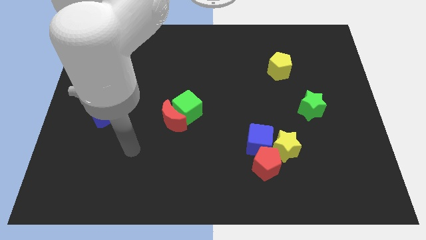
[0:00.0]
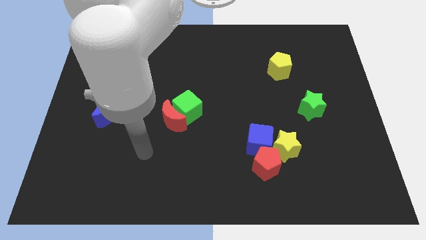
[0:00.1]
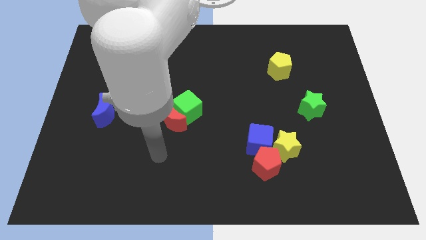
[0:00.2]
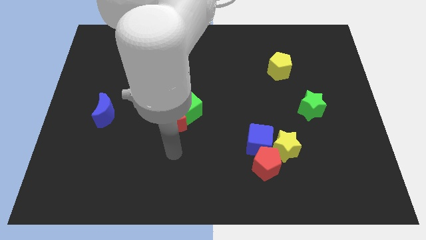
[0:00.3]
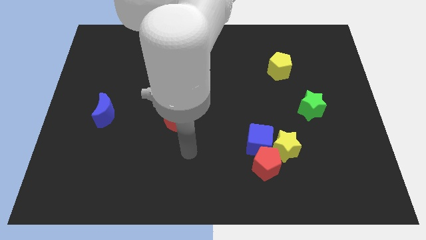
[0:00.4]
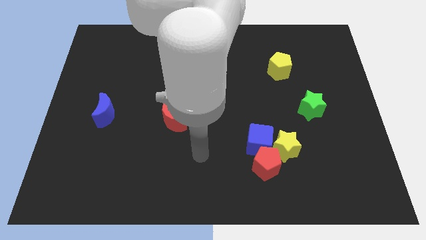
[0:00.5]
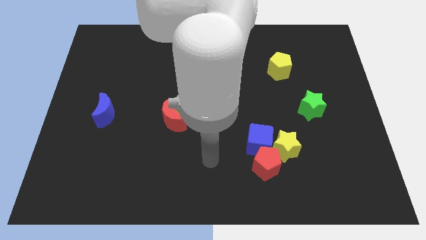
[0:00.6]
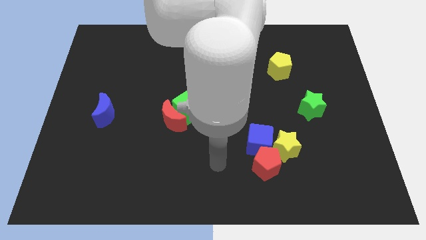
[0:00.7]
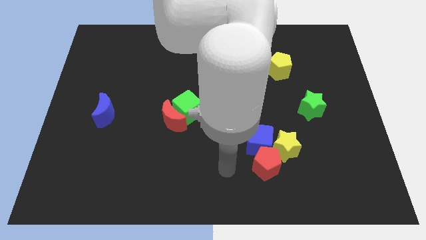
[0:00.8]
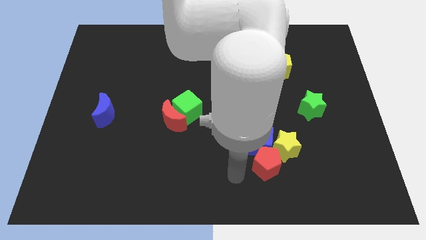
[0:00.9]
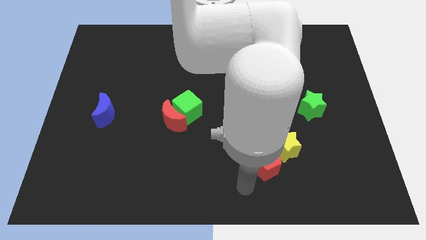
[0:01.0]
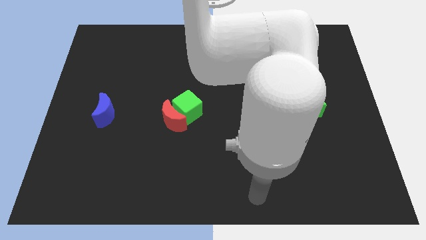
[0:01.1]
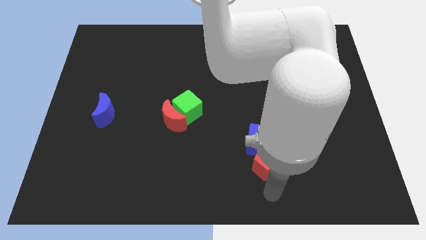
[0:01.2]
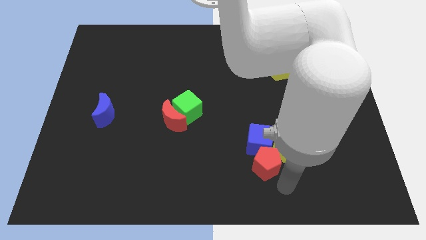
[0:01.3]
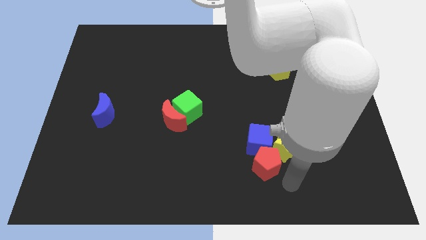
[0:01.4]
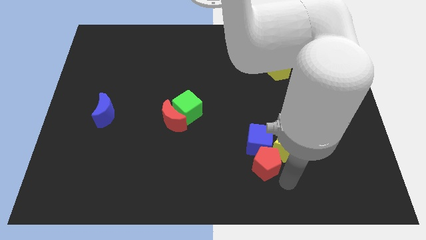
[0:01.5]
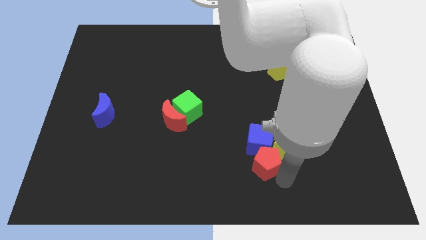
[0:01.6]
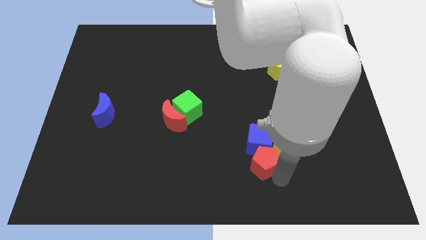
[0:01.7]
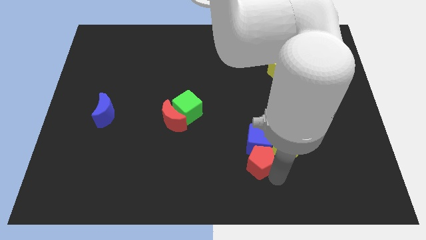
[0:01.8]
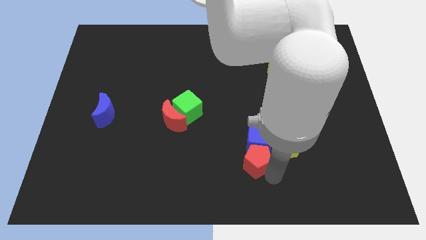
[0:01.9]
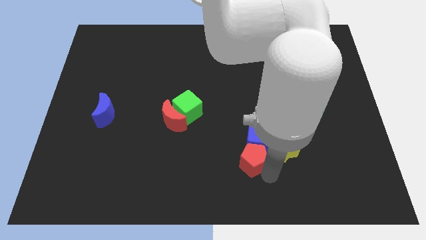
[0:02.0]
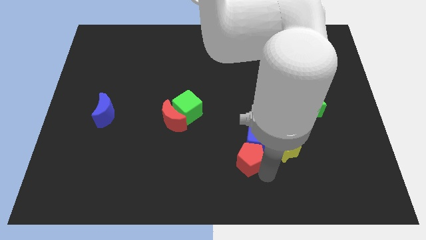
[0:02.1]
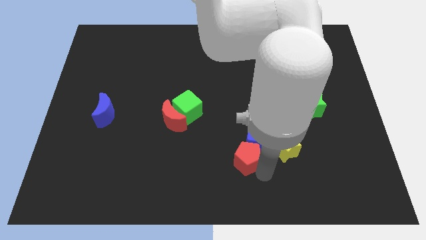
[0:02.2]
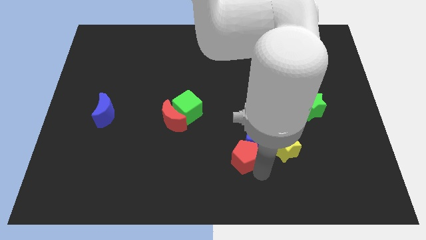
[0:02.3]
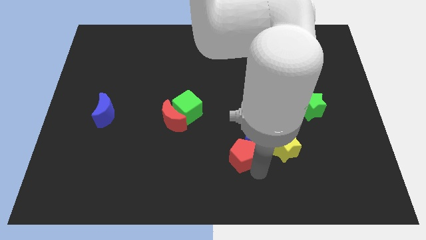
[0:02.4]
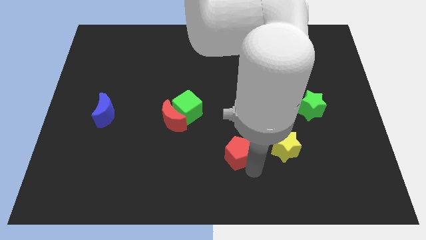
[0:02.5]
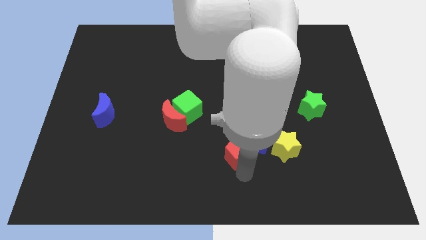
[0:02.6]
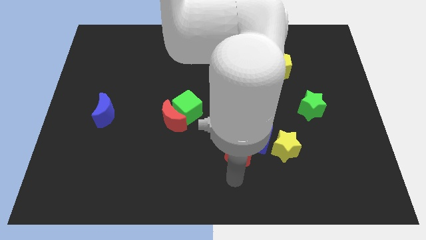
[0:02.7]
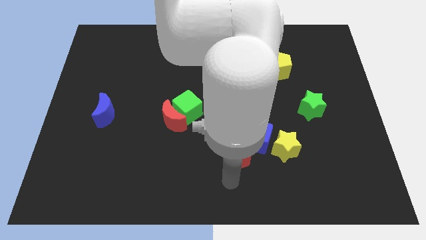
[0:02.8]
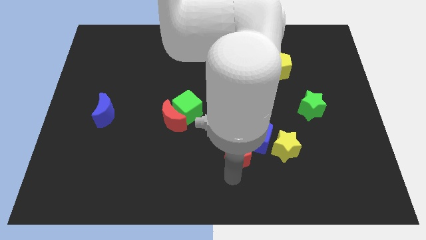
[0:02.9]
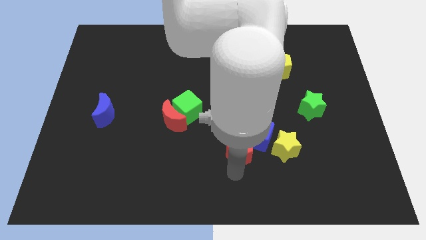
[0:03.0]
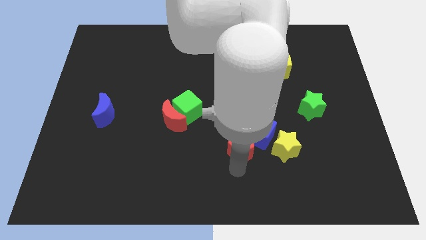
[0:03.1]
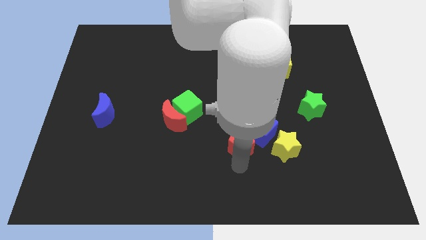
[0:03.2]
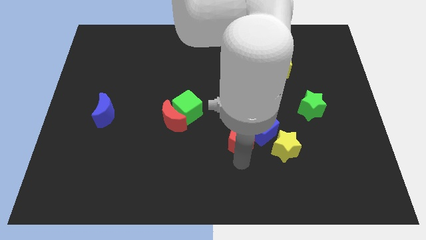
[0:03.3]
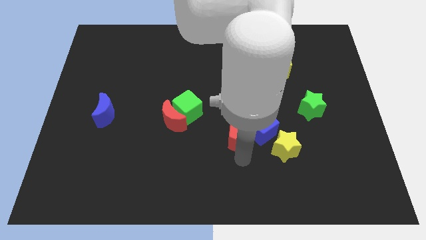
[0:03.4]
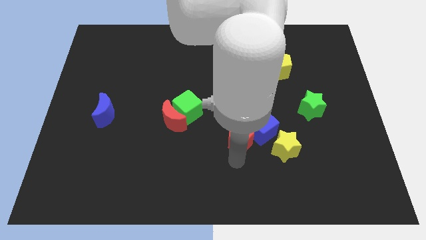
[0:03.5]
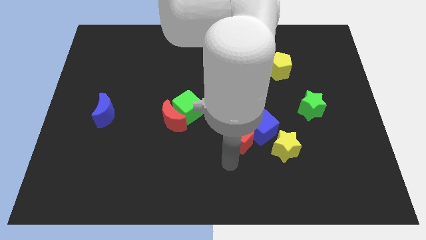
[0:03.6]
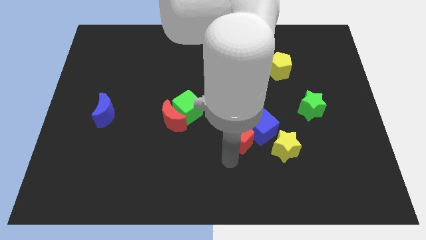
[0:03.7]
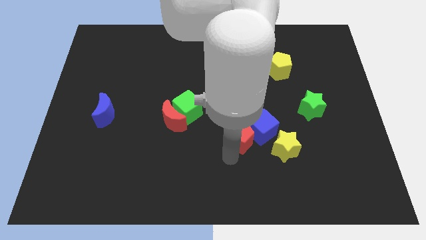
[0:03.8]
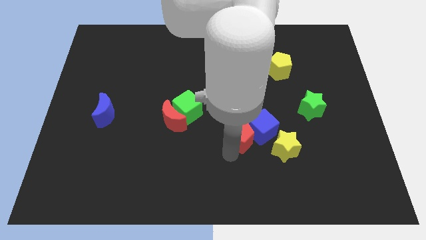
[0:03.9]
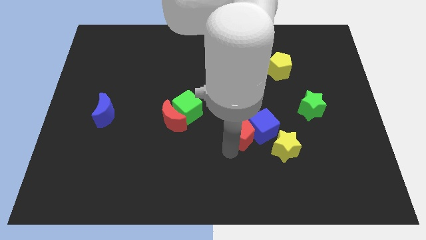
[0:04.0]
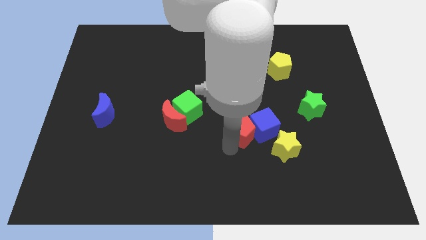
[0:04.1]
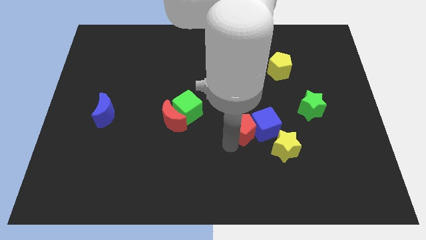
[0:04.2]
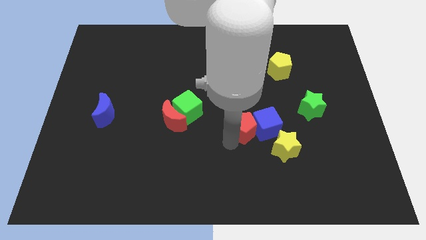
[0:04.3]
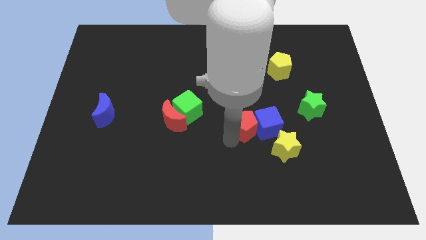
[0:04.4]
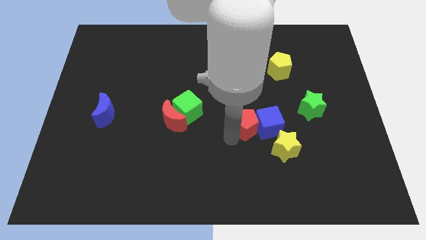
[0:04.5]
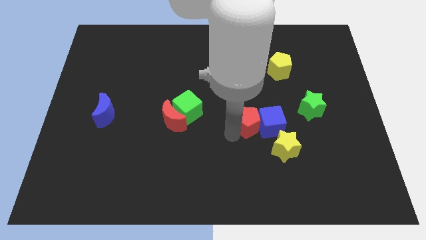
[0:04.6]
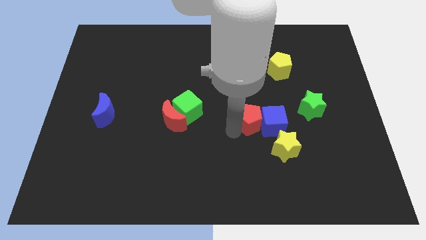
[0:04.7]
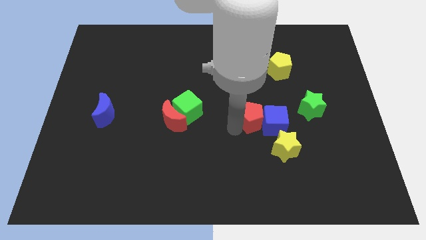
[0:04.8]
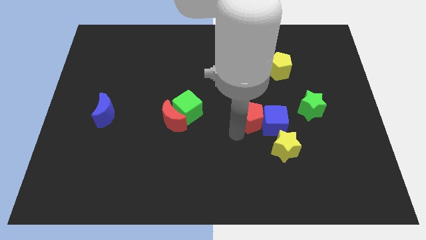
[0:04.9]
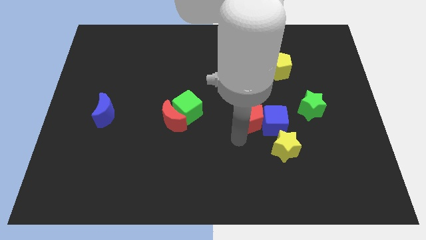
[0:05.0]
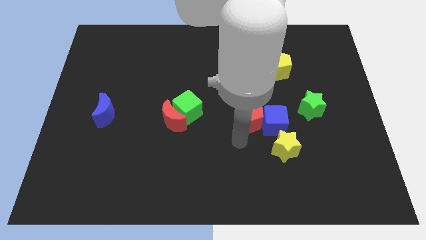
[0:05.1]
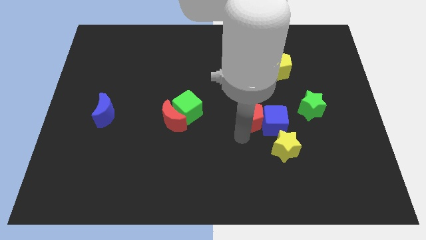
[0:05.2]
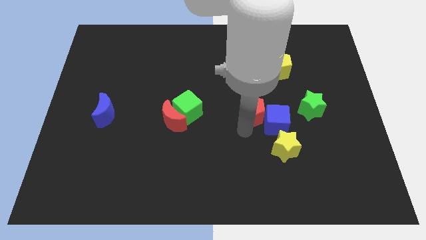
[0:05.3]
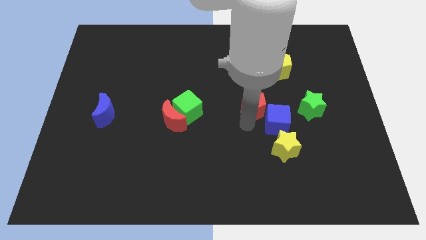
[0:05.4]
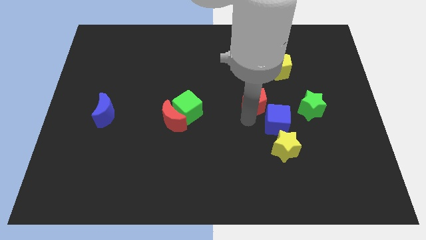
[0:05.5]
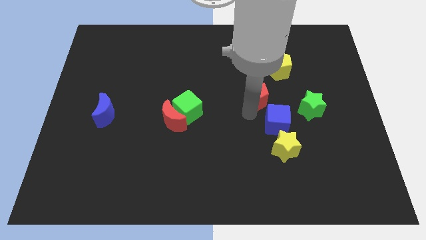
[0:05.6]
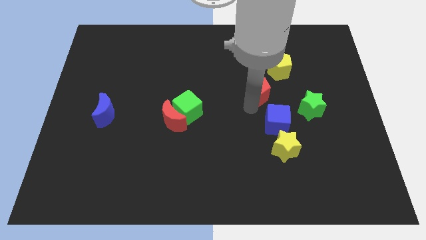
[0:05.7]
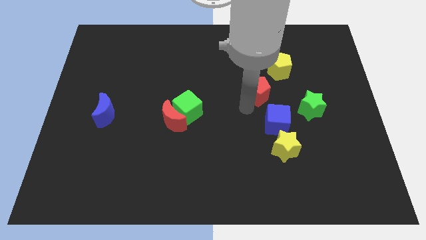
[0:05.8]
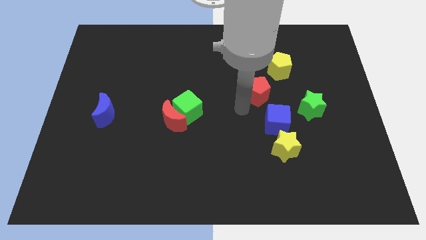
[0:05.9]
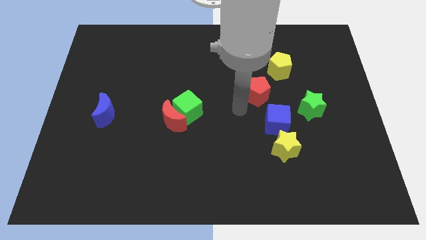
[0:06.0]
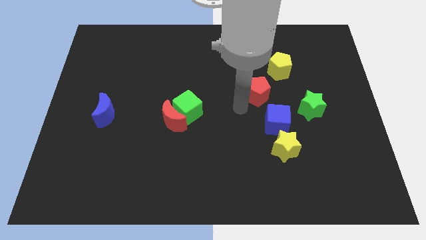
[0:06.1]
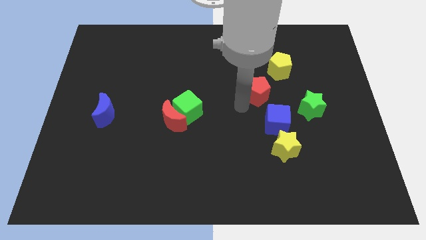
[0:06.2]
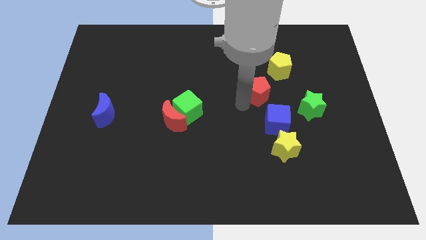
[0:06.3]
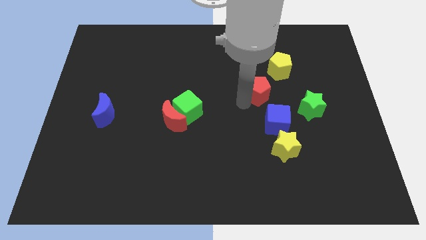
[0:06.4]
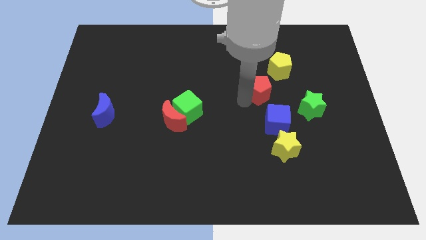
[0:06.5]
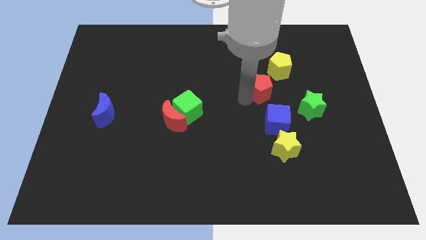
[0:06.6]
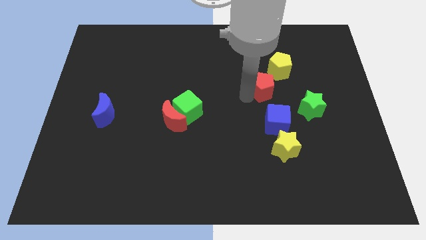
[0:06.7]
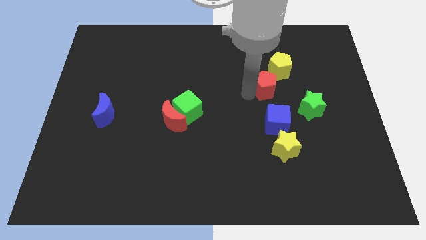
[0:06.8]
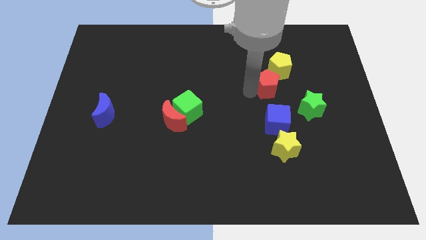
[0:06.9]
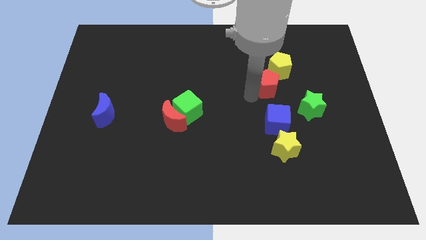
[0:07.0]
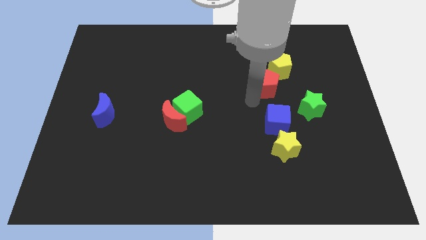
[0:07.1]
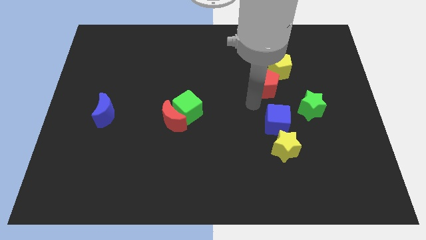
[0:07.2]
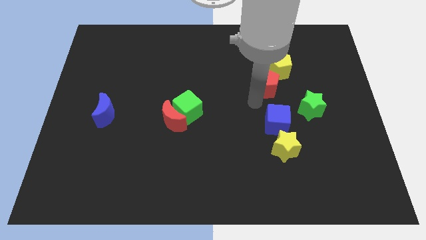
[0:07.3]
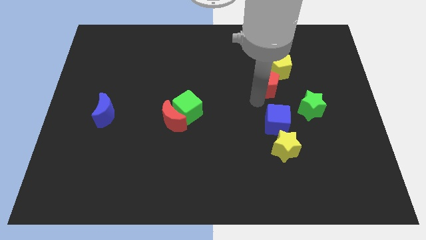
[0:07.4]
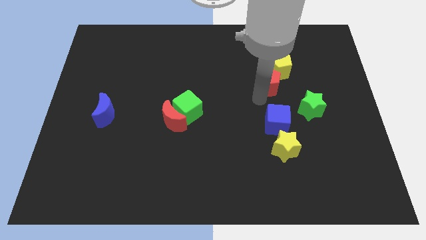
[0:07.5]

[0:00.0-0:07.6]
put the red pentagon next to the yellow pentagon
